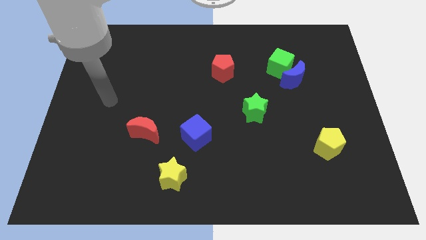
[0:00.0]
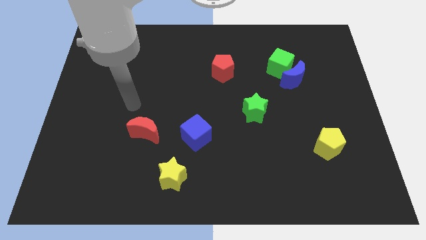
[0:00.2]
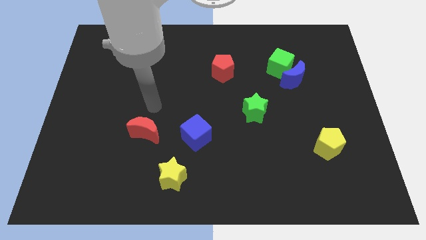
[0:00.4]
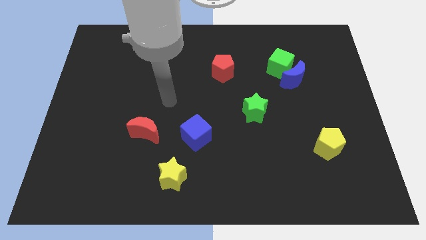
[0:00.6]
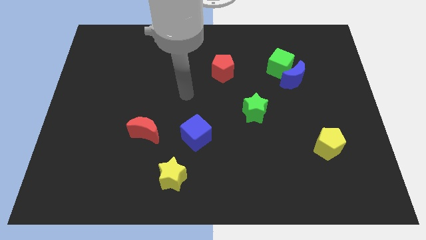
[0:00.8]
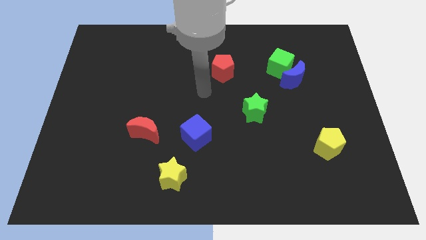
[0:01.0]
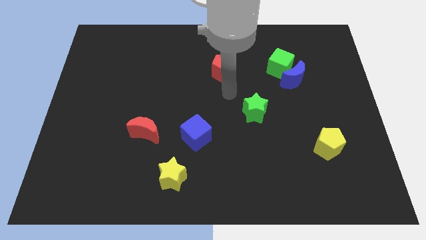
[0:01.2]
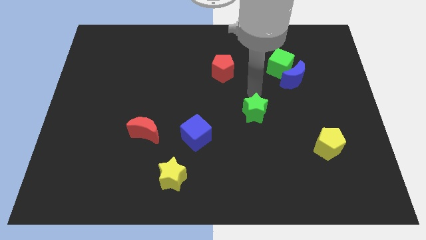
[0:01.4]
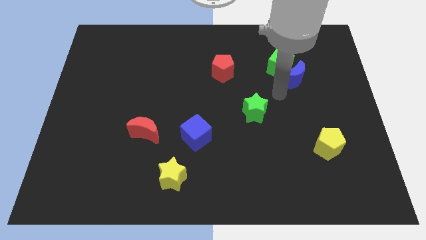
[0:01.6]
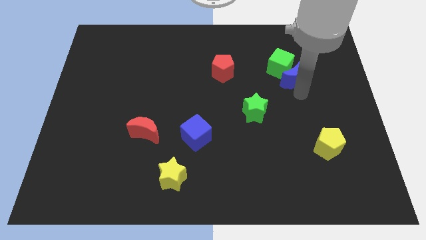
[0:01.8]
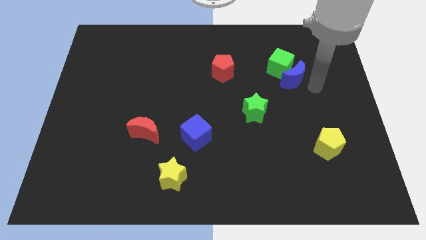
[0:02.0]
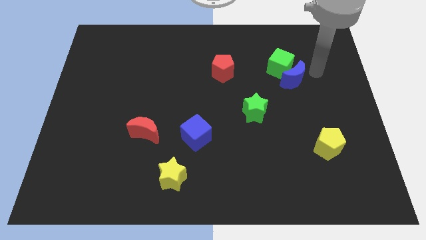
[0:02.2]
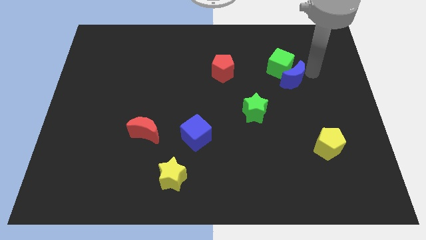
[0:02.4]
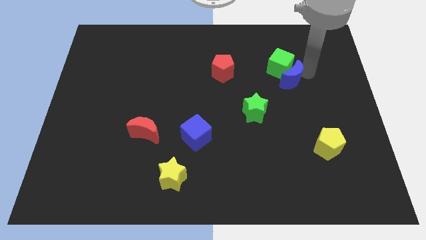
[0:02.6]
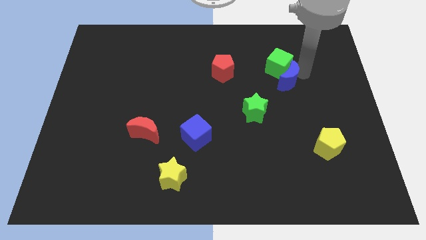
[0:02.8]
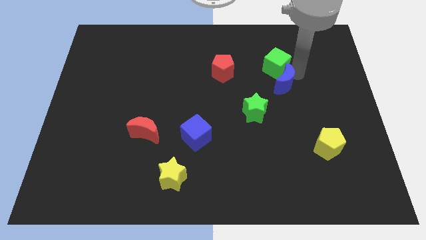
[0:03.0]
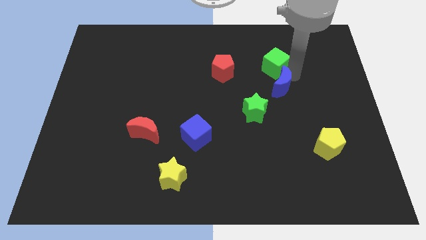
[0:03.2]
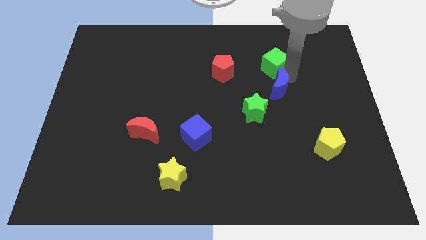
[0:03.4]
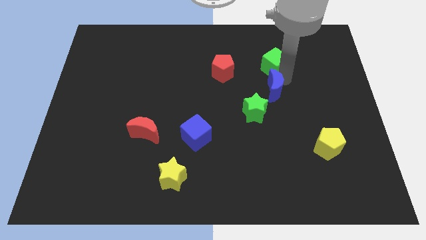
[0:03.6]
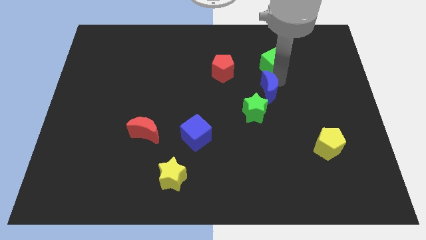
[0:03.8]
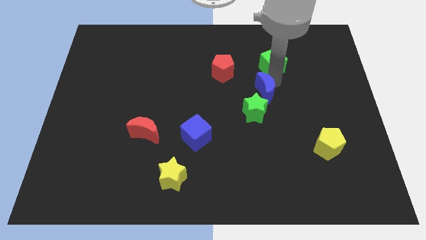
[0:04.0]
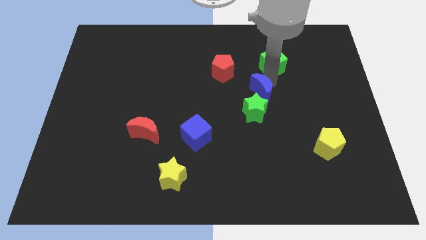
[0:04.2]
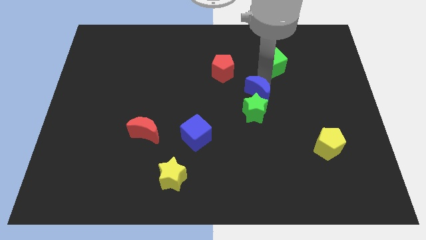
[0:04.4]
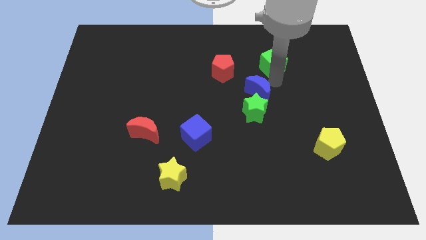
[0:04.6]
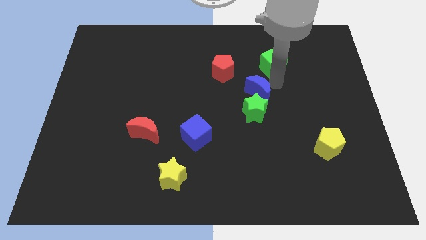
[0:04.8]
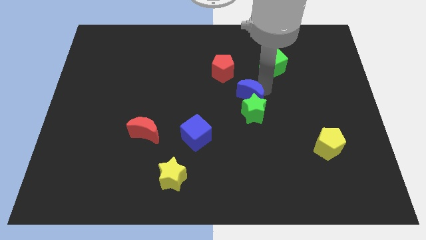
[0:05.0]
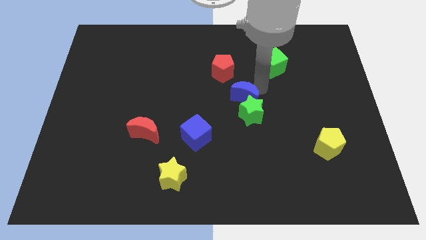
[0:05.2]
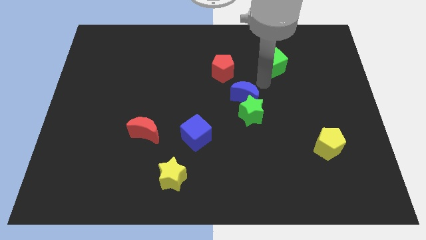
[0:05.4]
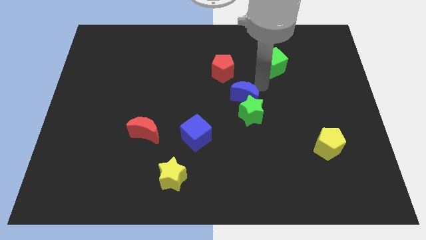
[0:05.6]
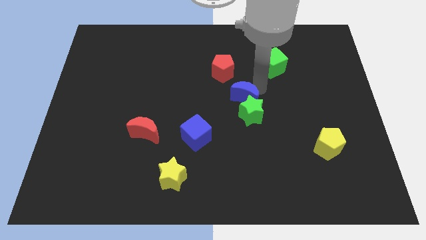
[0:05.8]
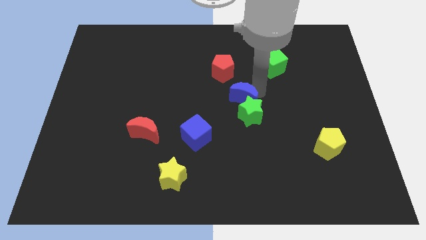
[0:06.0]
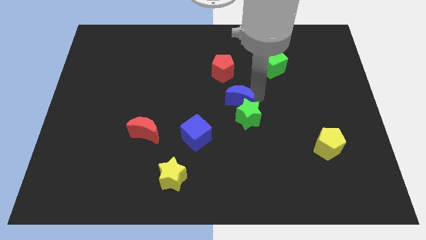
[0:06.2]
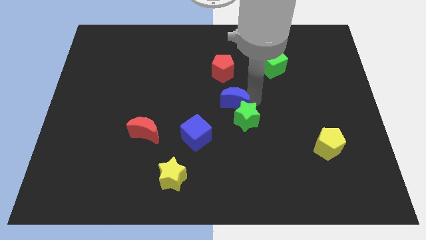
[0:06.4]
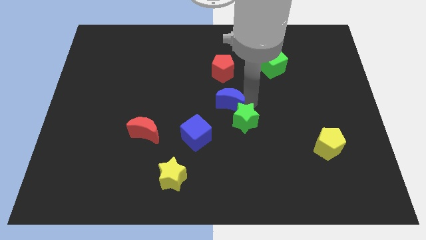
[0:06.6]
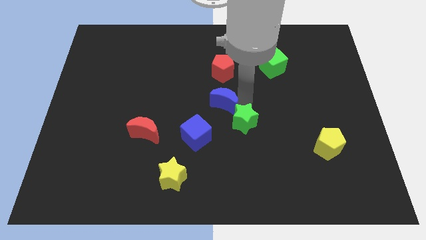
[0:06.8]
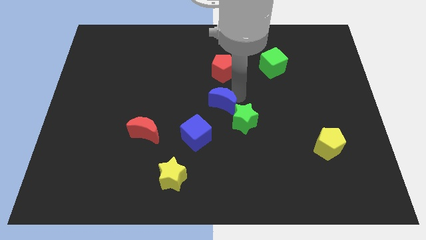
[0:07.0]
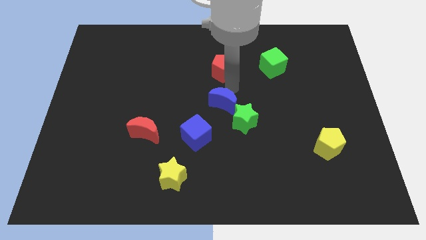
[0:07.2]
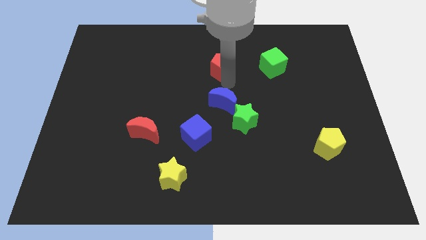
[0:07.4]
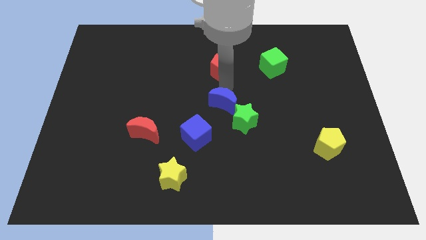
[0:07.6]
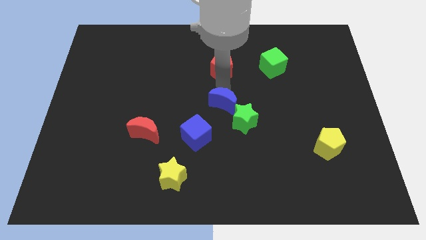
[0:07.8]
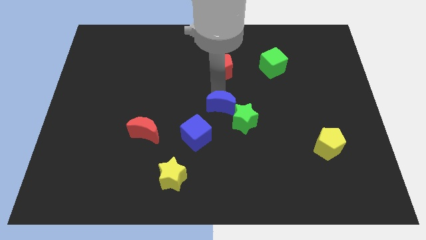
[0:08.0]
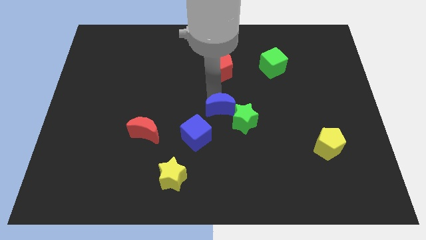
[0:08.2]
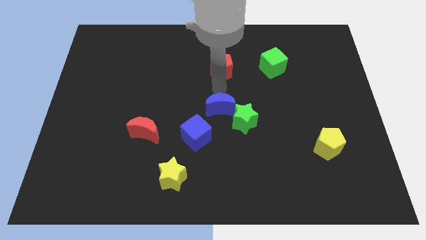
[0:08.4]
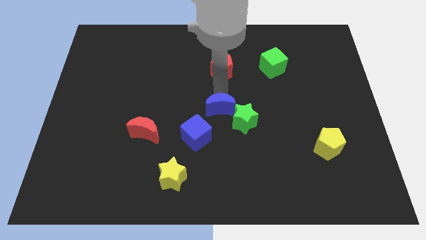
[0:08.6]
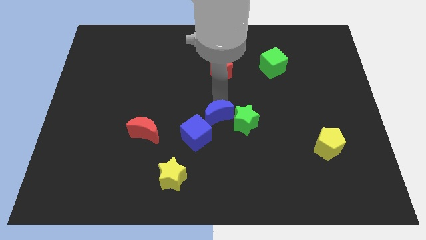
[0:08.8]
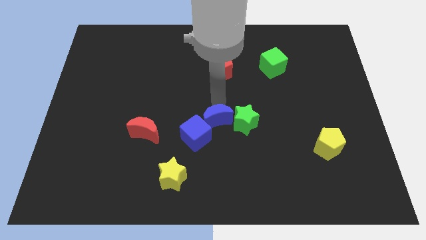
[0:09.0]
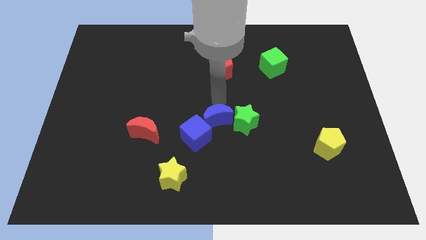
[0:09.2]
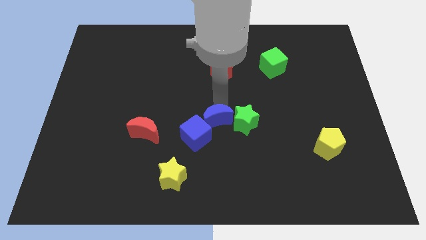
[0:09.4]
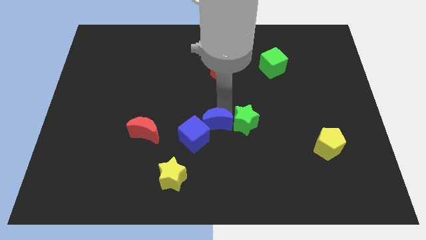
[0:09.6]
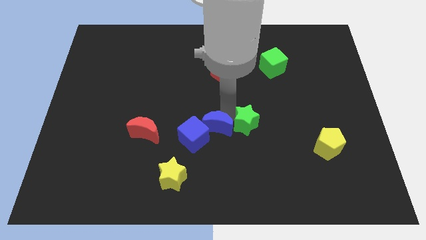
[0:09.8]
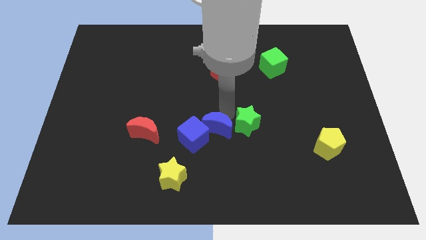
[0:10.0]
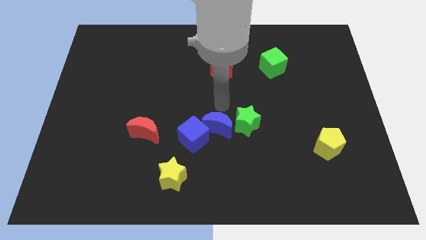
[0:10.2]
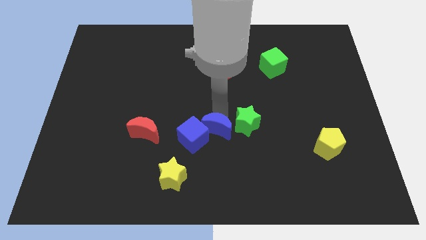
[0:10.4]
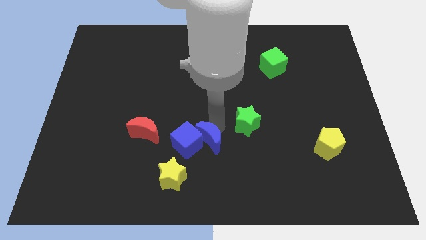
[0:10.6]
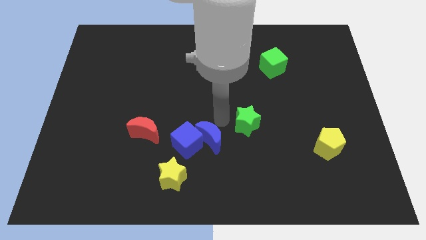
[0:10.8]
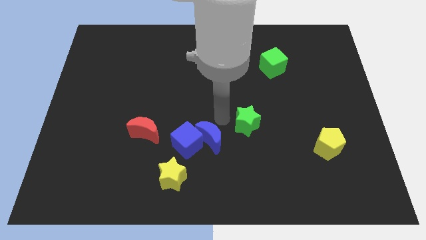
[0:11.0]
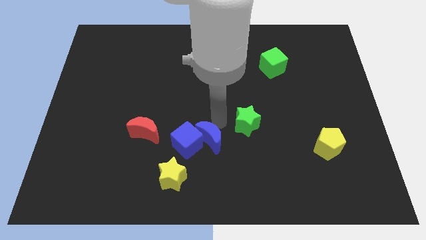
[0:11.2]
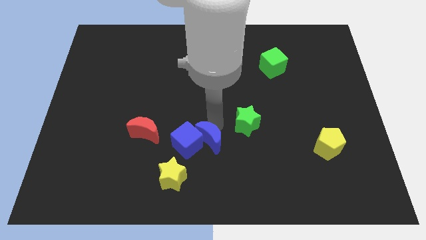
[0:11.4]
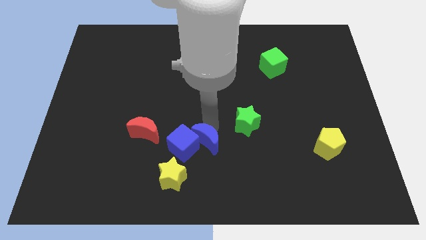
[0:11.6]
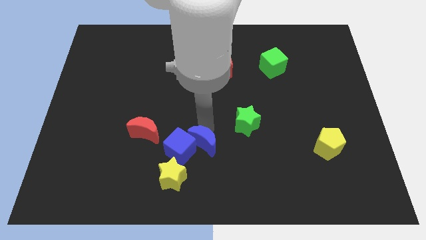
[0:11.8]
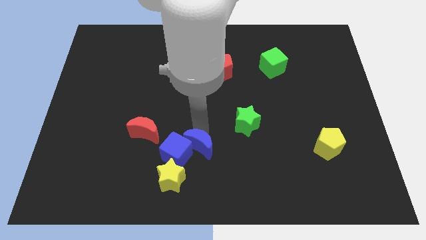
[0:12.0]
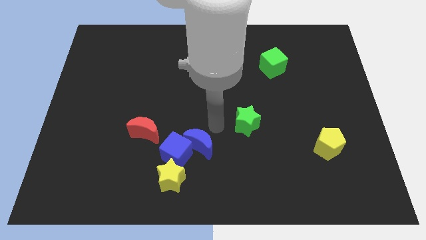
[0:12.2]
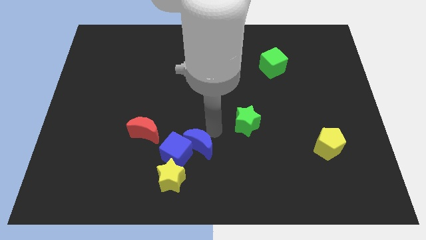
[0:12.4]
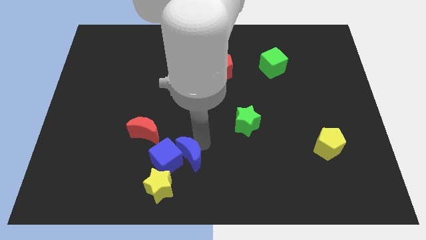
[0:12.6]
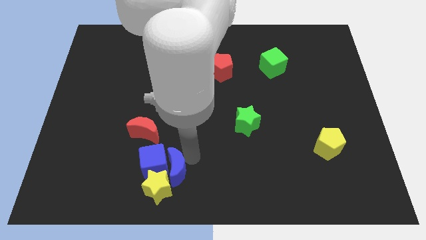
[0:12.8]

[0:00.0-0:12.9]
put the blue moon towards the yellow star
